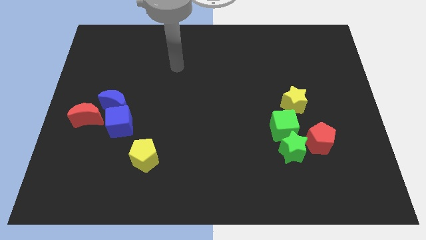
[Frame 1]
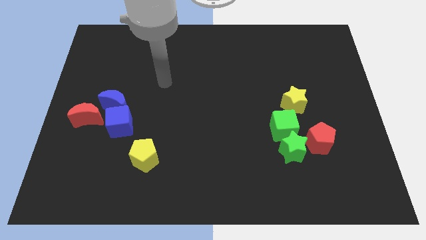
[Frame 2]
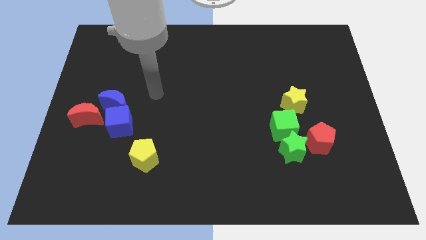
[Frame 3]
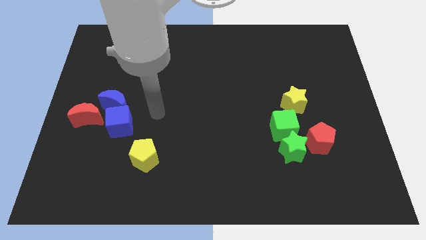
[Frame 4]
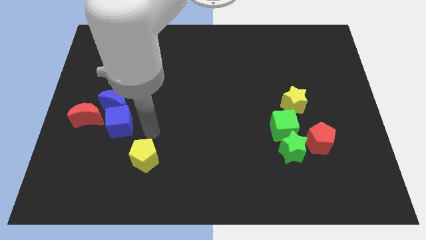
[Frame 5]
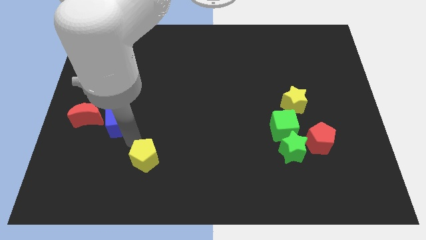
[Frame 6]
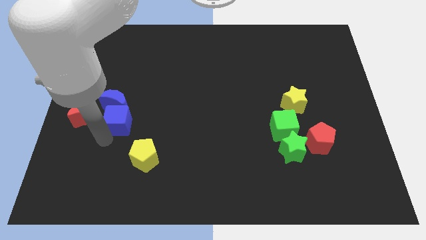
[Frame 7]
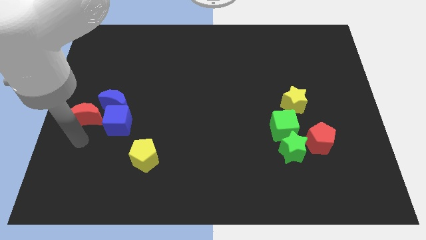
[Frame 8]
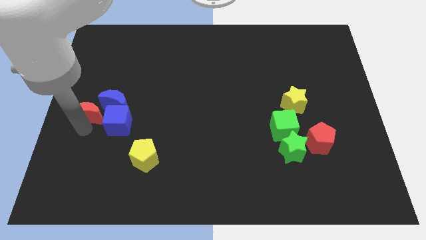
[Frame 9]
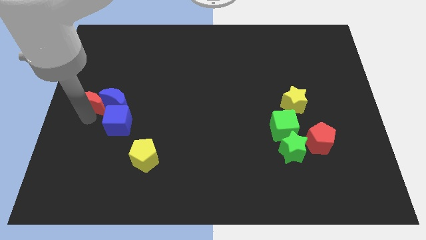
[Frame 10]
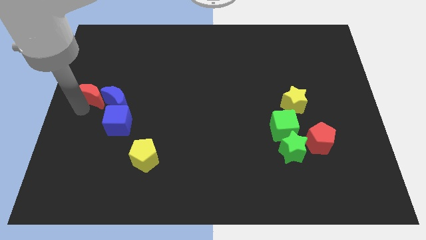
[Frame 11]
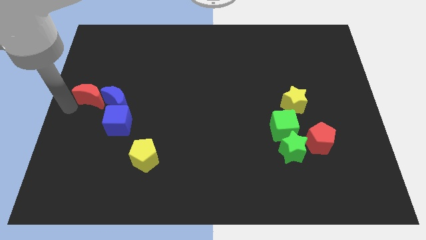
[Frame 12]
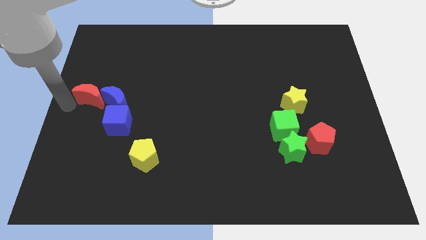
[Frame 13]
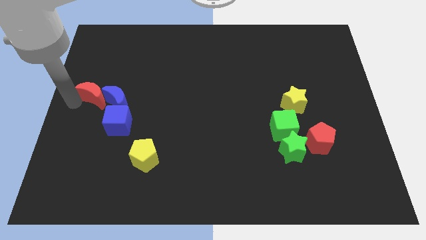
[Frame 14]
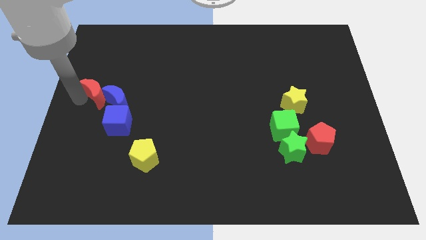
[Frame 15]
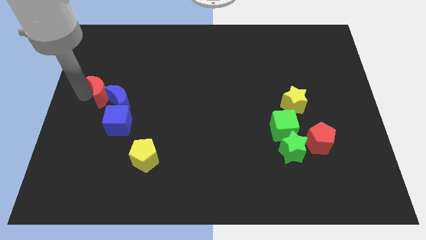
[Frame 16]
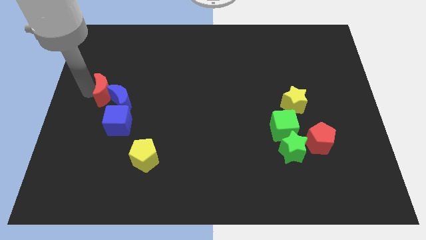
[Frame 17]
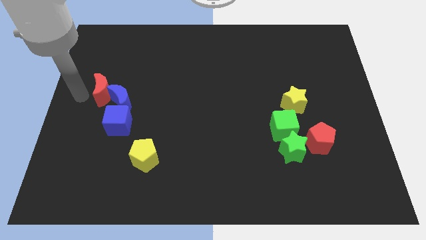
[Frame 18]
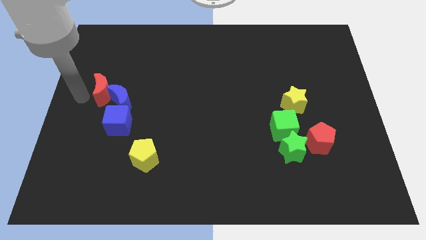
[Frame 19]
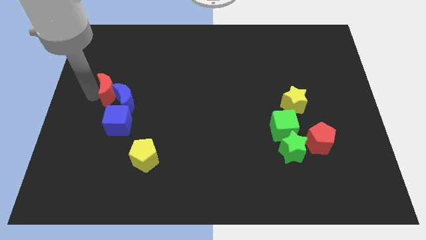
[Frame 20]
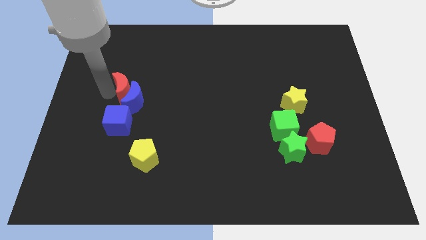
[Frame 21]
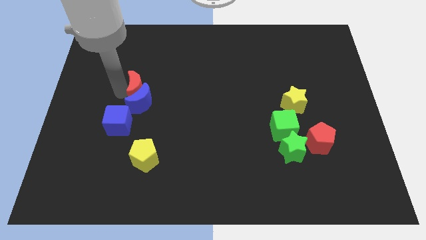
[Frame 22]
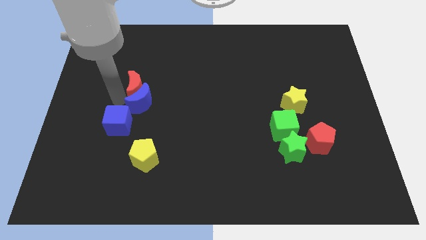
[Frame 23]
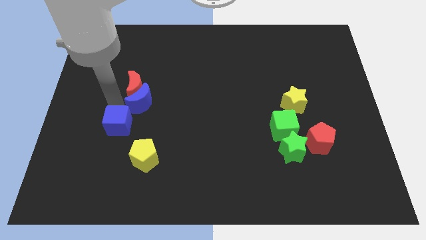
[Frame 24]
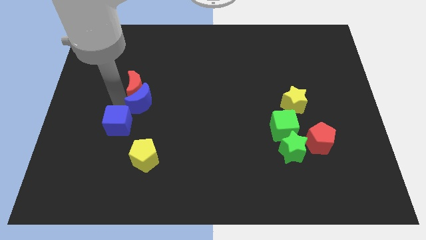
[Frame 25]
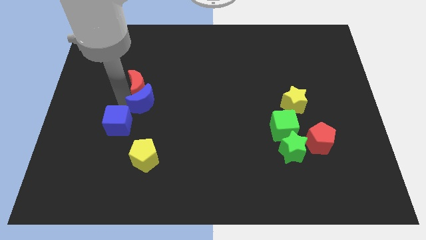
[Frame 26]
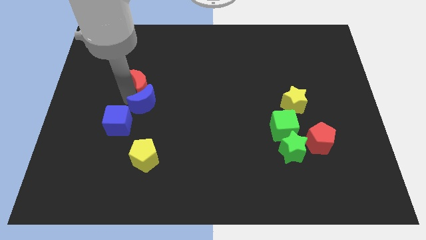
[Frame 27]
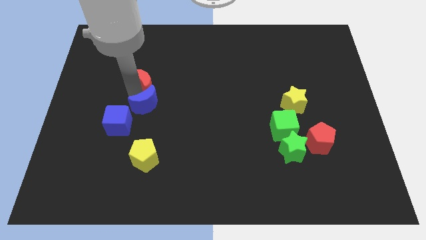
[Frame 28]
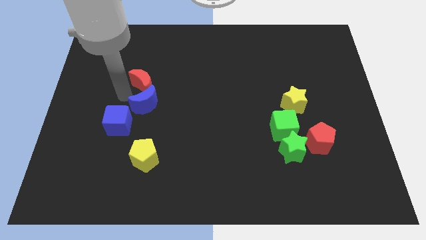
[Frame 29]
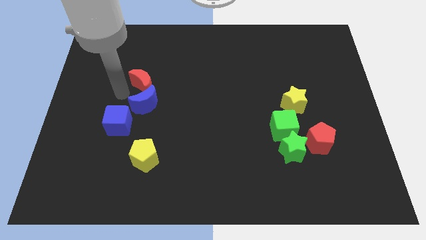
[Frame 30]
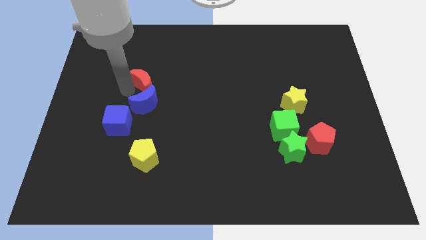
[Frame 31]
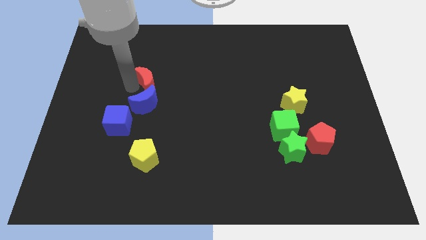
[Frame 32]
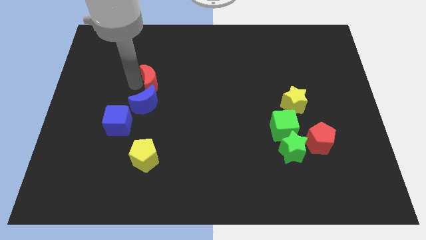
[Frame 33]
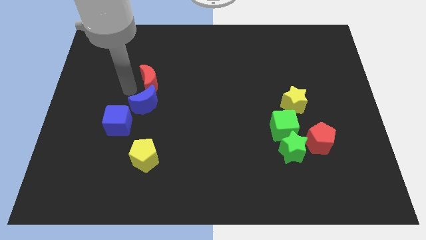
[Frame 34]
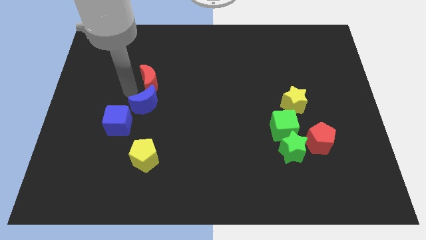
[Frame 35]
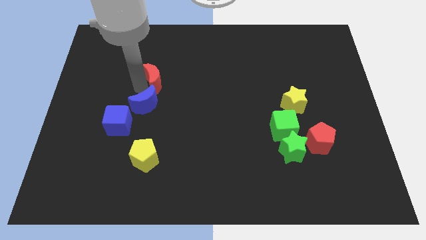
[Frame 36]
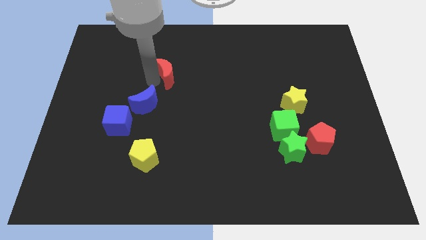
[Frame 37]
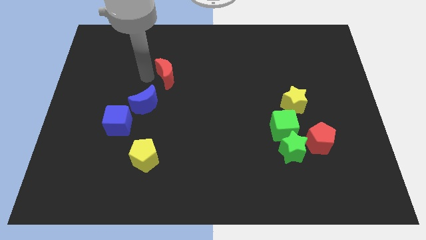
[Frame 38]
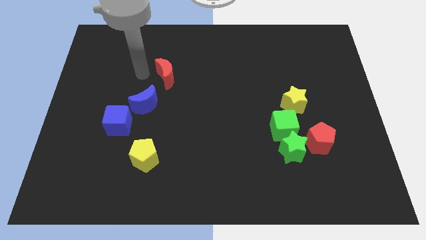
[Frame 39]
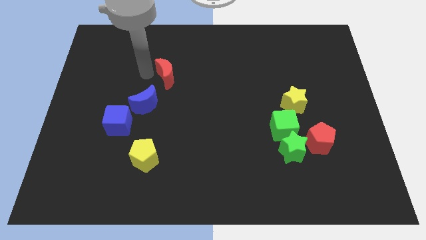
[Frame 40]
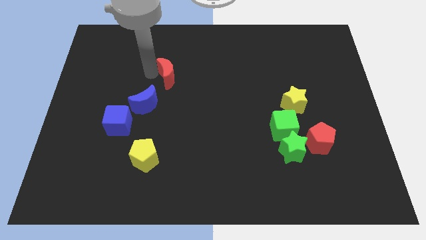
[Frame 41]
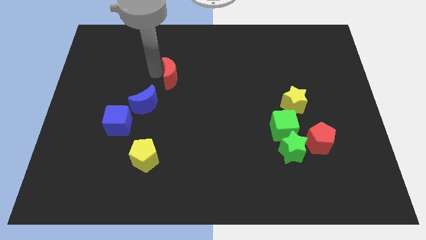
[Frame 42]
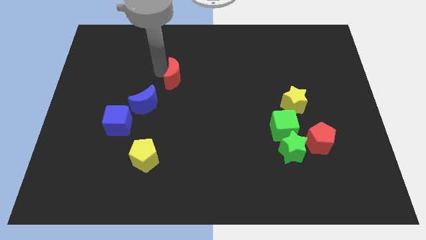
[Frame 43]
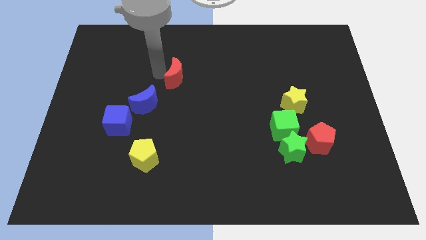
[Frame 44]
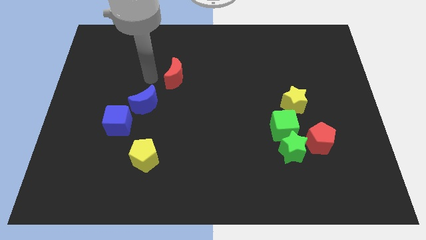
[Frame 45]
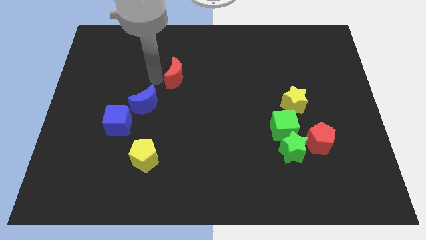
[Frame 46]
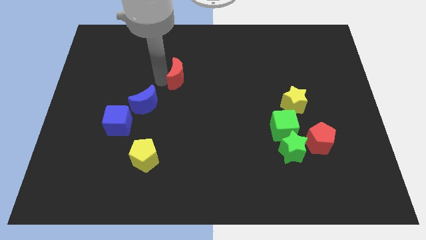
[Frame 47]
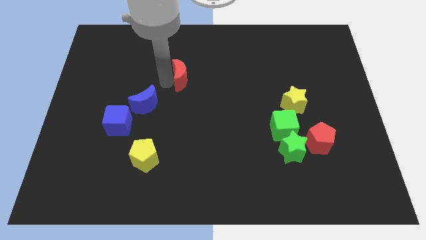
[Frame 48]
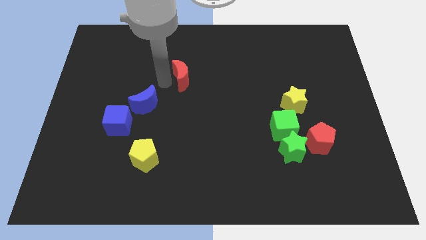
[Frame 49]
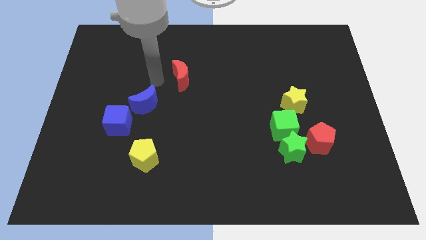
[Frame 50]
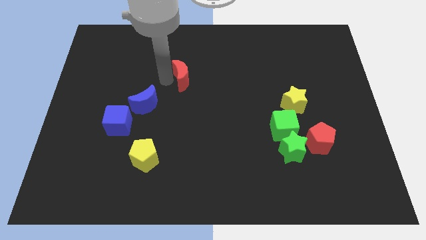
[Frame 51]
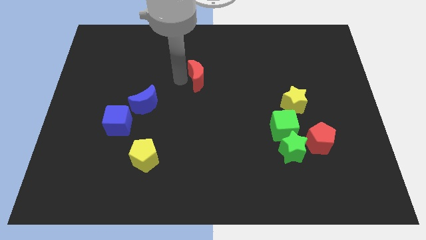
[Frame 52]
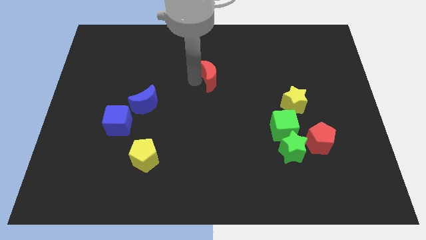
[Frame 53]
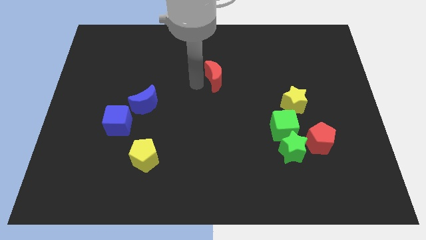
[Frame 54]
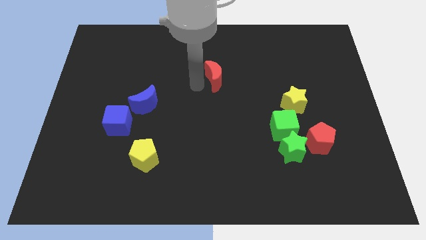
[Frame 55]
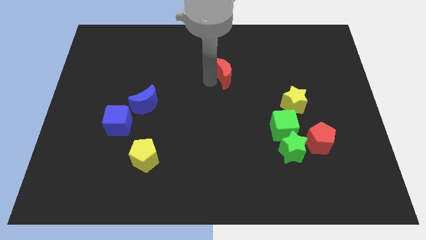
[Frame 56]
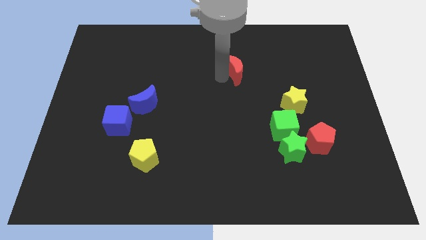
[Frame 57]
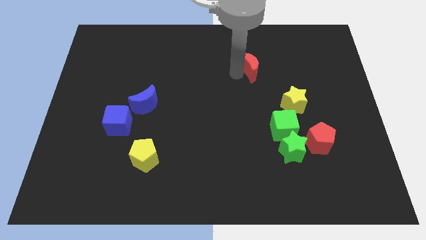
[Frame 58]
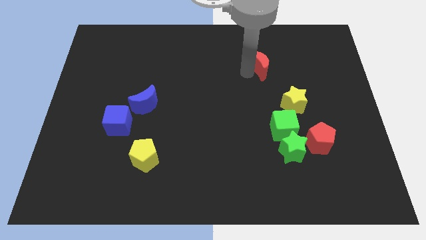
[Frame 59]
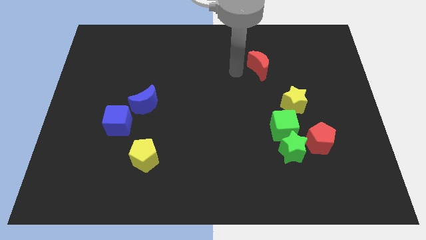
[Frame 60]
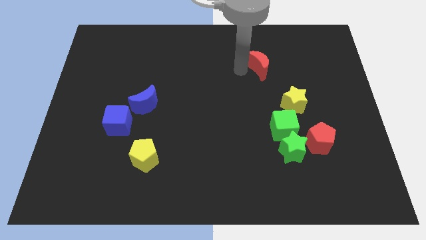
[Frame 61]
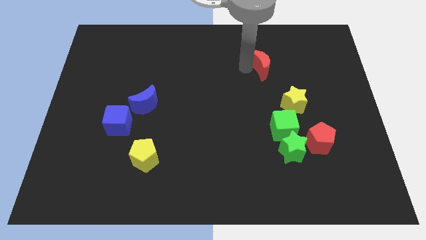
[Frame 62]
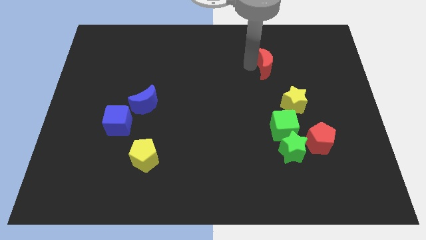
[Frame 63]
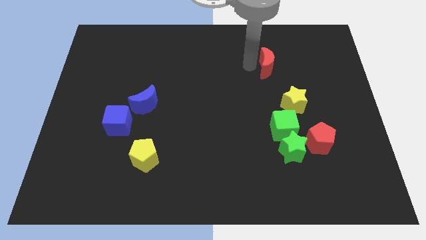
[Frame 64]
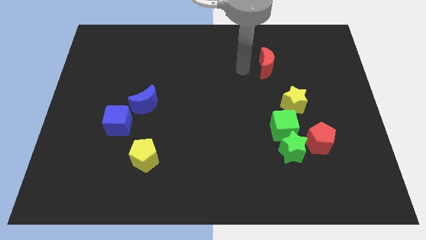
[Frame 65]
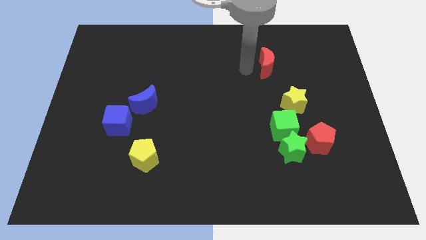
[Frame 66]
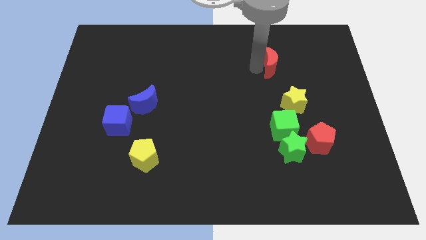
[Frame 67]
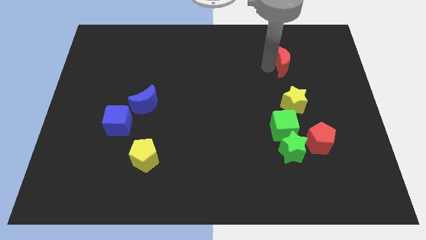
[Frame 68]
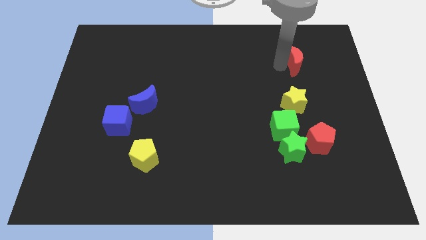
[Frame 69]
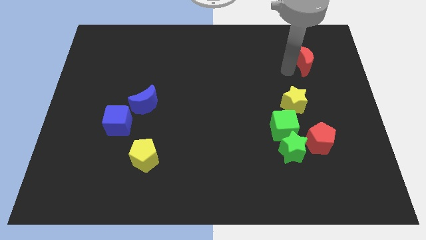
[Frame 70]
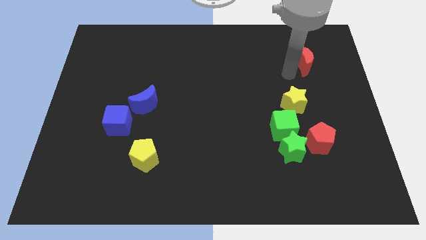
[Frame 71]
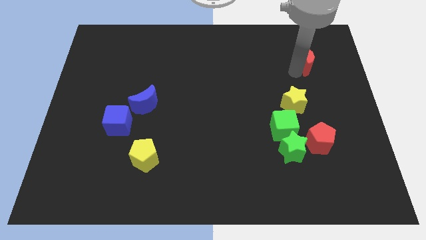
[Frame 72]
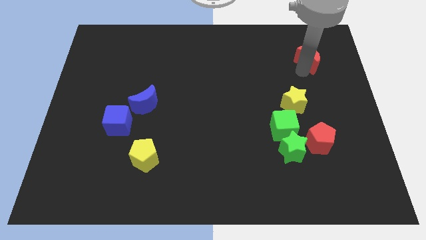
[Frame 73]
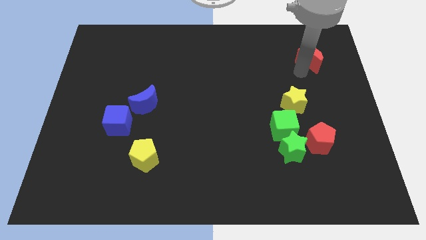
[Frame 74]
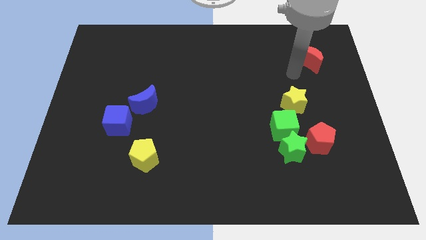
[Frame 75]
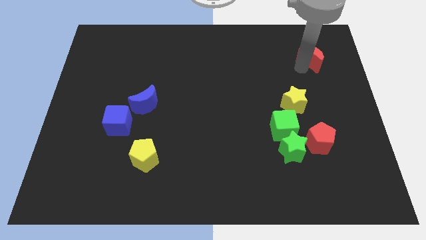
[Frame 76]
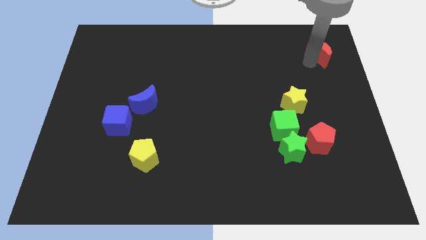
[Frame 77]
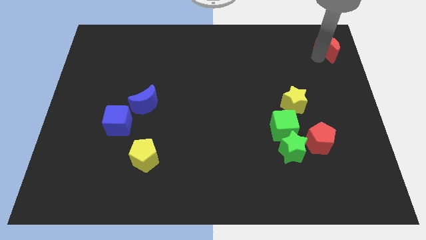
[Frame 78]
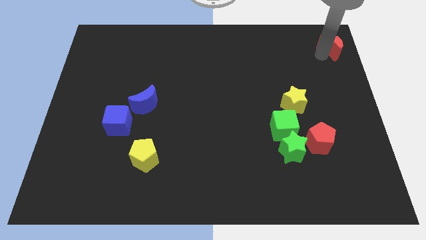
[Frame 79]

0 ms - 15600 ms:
put the red moon to the top right of the board
